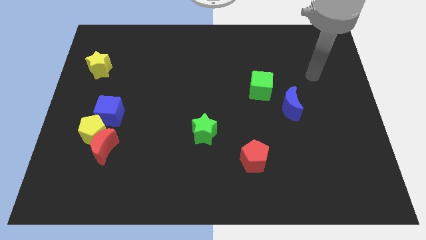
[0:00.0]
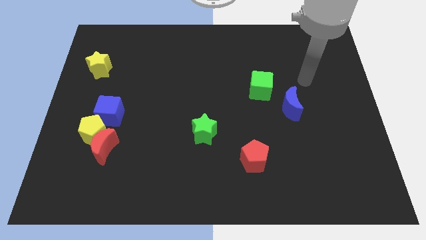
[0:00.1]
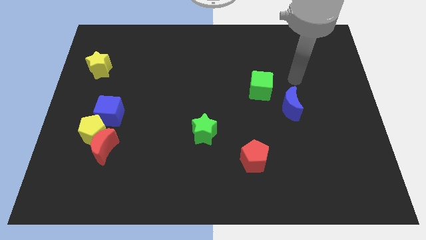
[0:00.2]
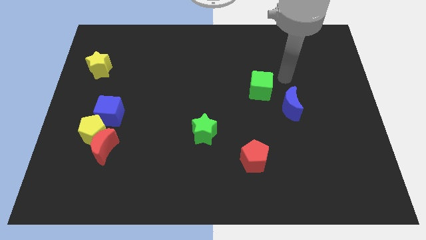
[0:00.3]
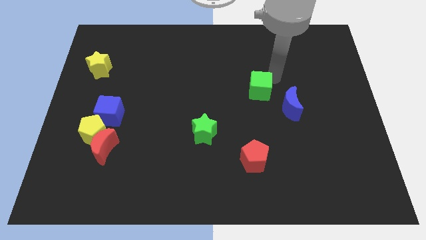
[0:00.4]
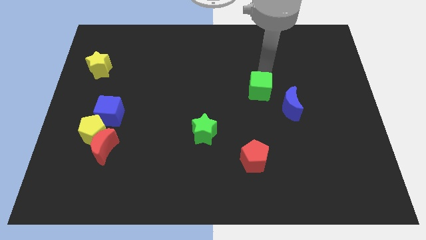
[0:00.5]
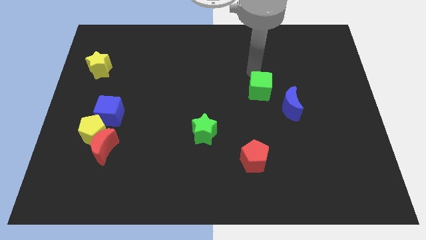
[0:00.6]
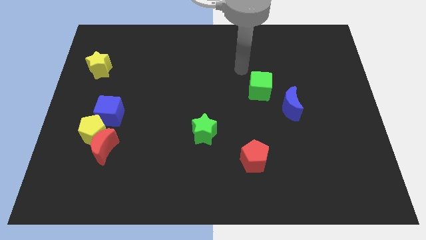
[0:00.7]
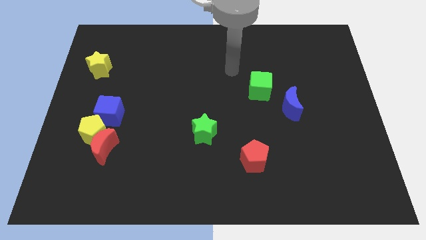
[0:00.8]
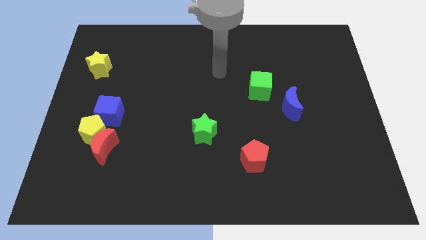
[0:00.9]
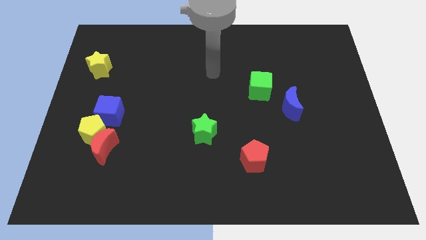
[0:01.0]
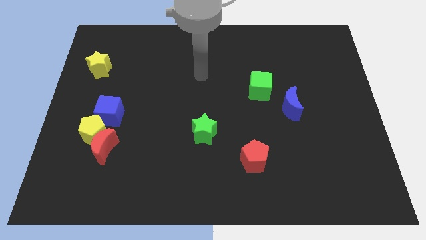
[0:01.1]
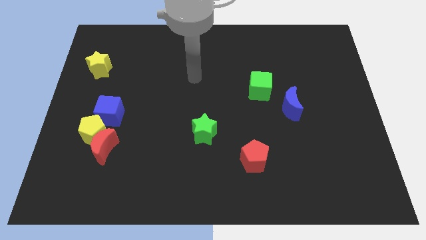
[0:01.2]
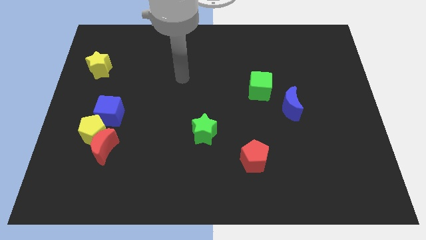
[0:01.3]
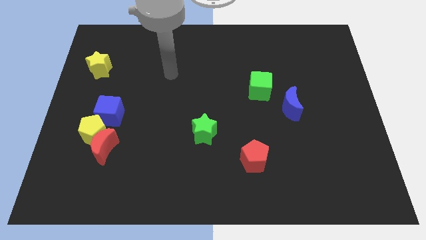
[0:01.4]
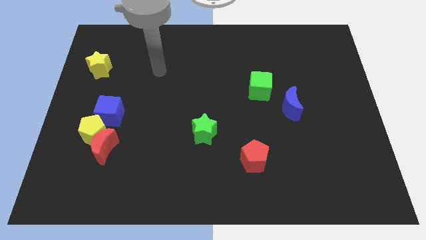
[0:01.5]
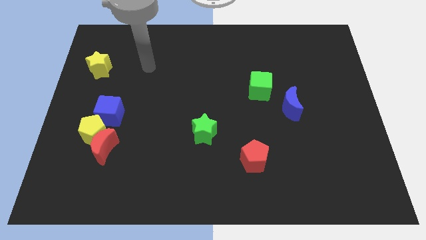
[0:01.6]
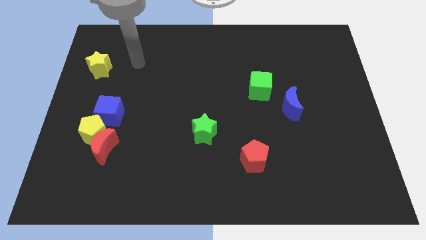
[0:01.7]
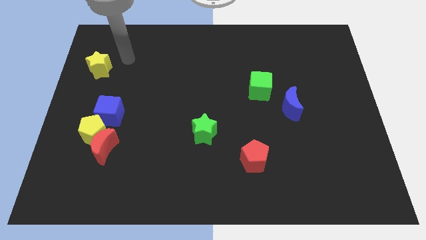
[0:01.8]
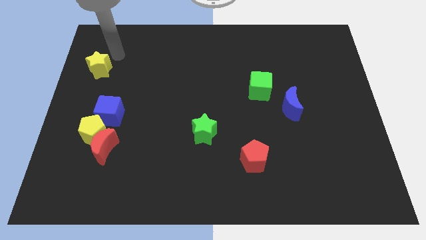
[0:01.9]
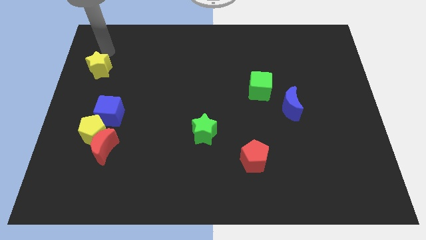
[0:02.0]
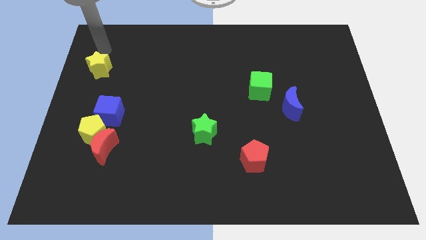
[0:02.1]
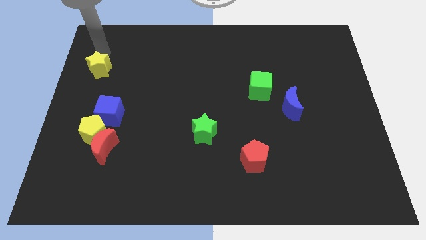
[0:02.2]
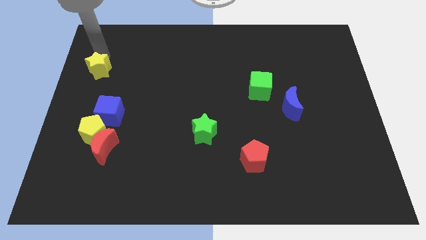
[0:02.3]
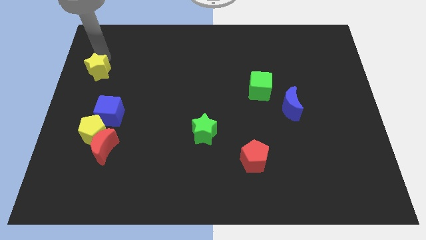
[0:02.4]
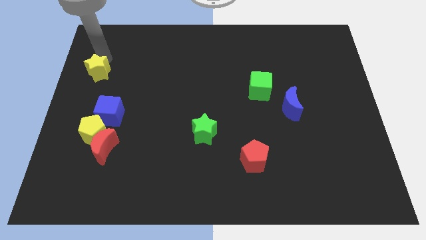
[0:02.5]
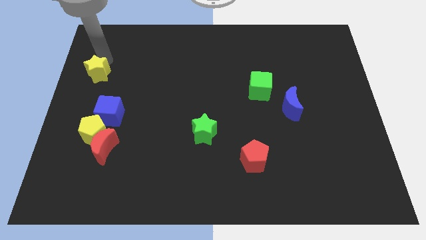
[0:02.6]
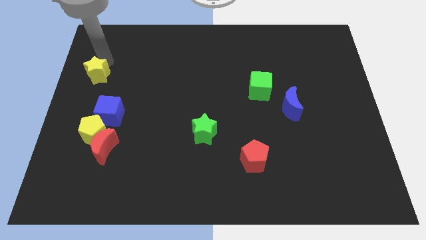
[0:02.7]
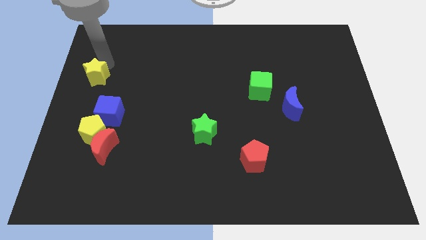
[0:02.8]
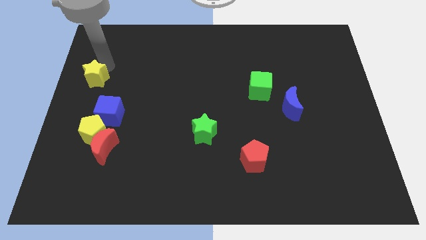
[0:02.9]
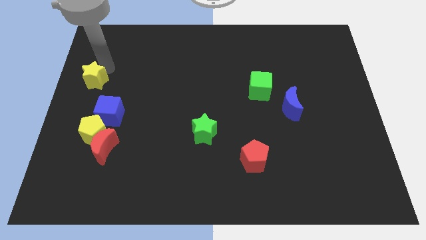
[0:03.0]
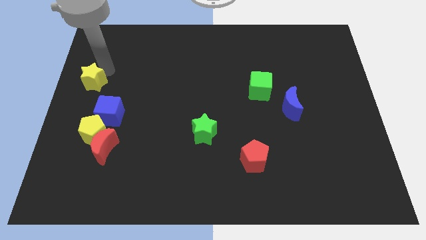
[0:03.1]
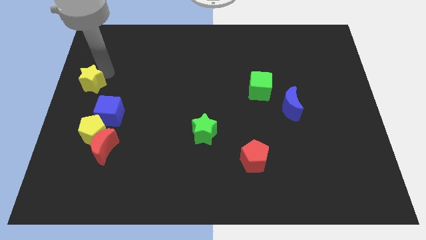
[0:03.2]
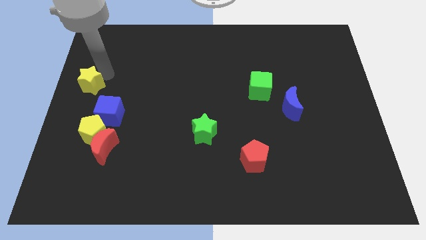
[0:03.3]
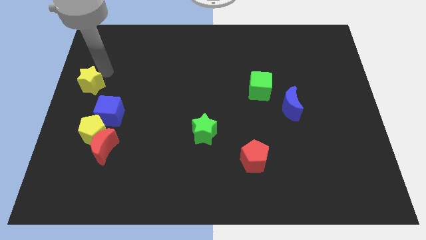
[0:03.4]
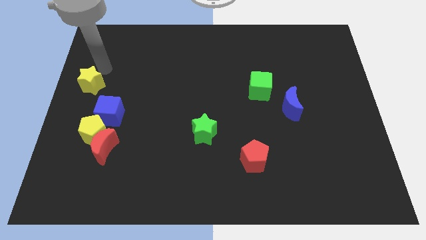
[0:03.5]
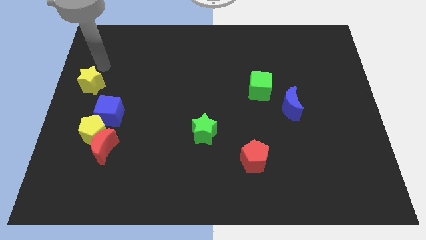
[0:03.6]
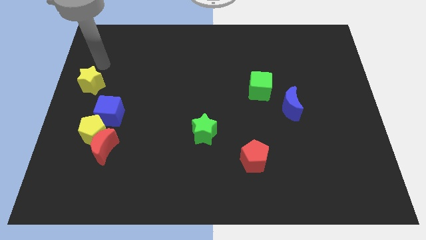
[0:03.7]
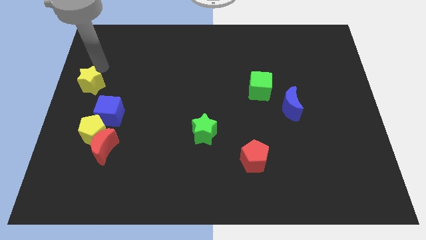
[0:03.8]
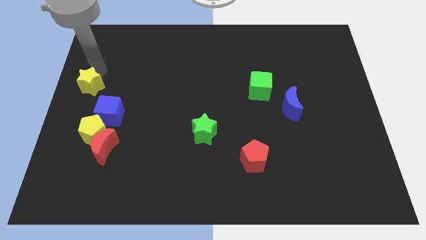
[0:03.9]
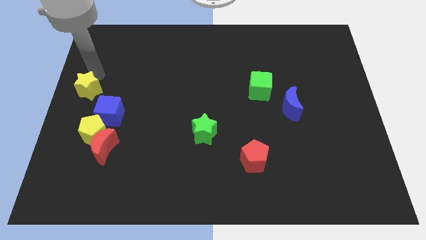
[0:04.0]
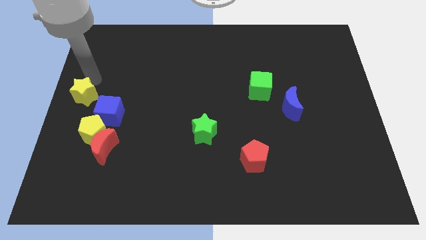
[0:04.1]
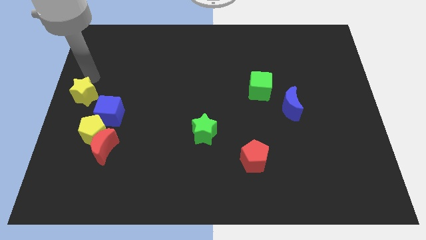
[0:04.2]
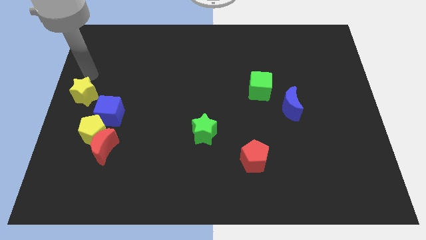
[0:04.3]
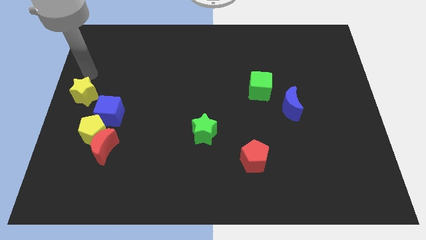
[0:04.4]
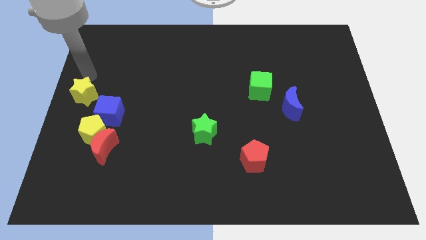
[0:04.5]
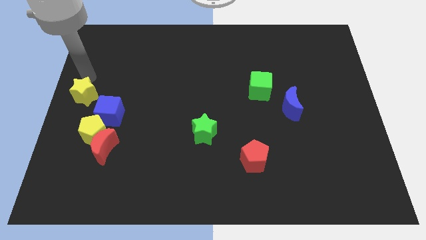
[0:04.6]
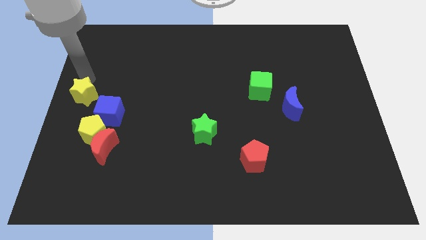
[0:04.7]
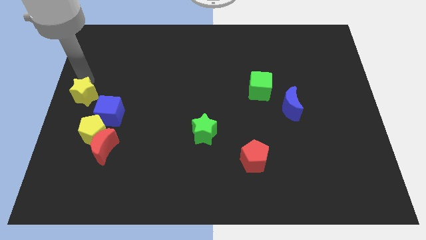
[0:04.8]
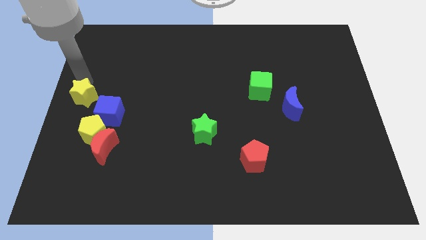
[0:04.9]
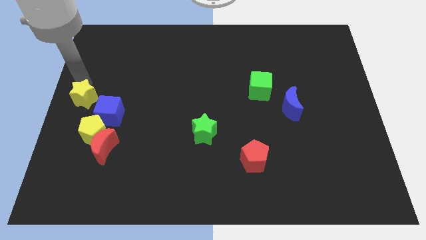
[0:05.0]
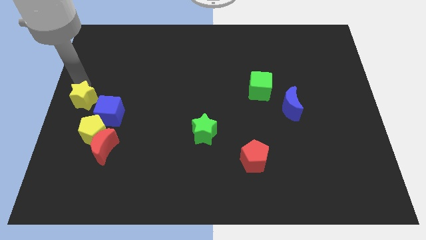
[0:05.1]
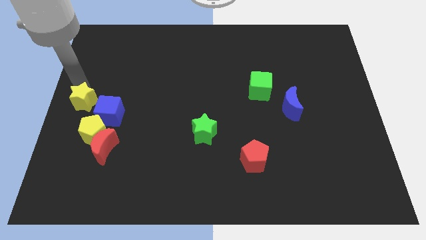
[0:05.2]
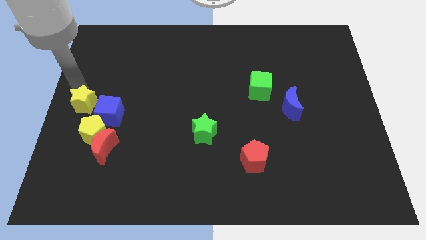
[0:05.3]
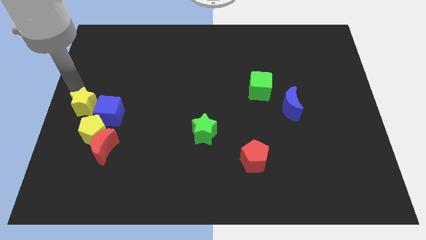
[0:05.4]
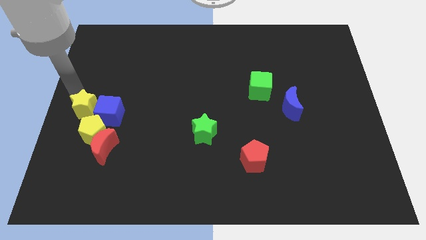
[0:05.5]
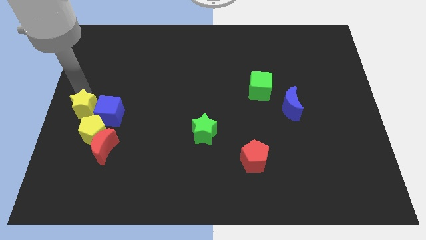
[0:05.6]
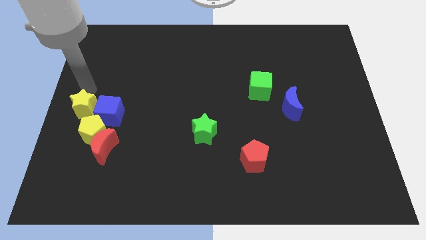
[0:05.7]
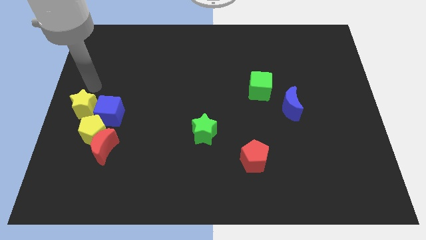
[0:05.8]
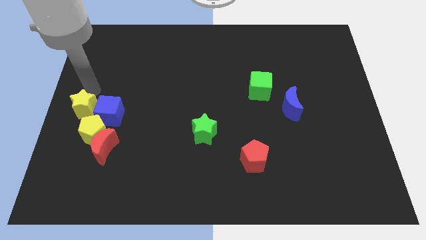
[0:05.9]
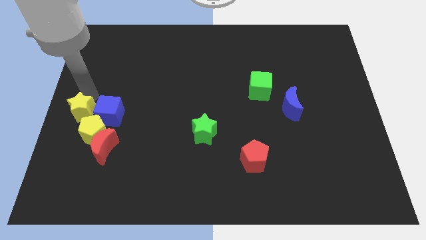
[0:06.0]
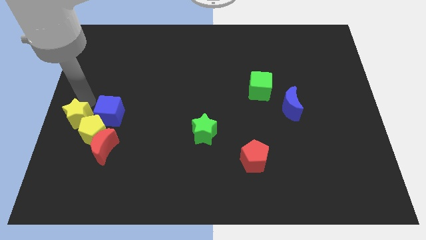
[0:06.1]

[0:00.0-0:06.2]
move the yellow star to the bottom left of the blue cube

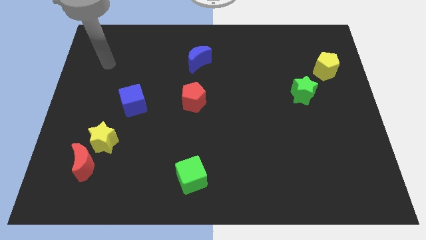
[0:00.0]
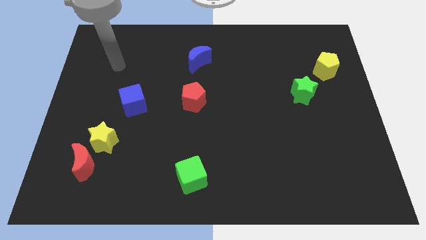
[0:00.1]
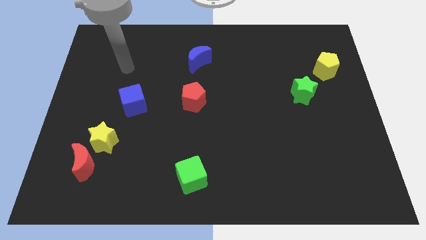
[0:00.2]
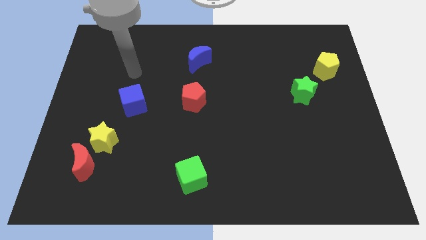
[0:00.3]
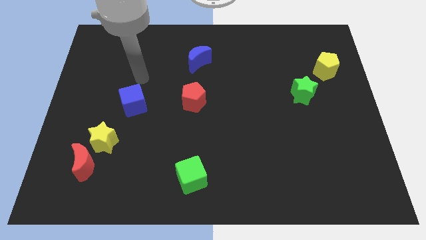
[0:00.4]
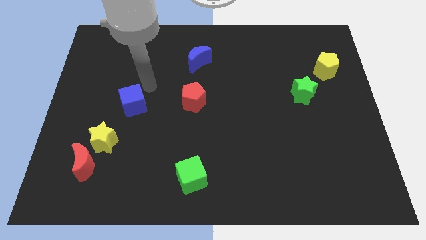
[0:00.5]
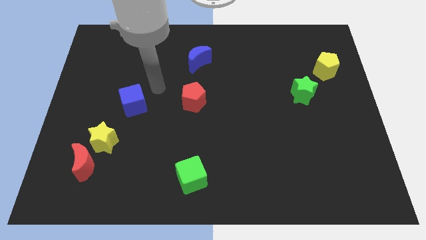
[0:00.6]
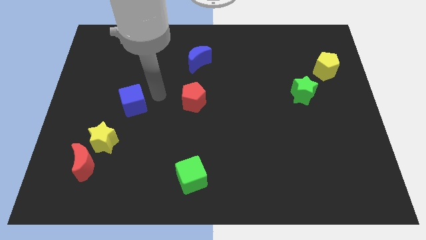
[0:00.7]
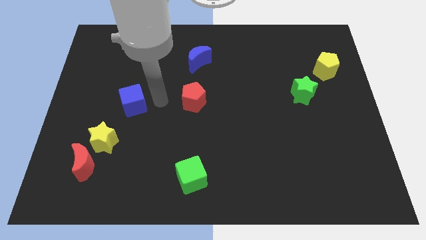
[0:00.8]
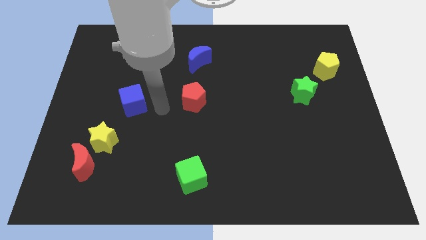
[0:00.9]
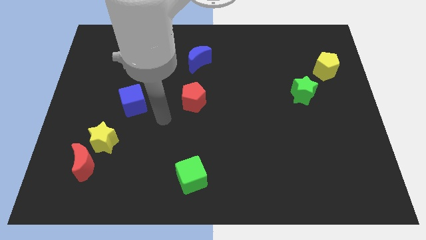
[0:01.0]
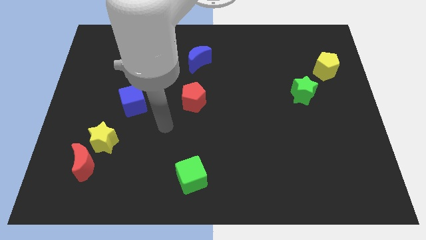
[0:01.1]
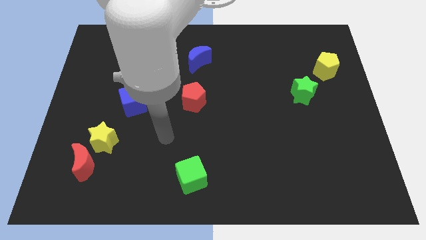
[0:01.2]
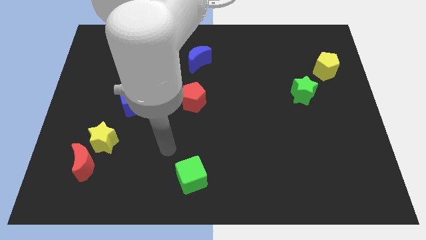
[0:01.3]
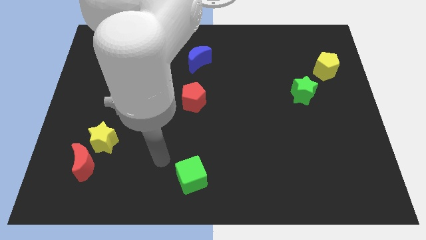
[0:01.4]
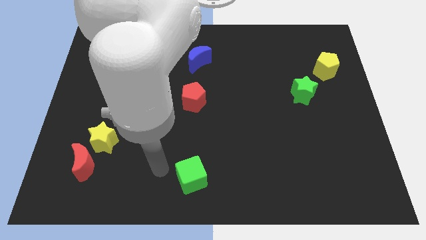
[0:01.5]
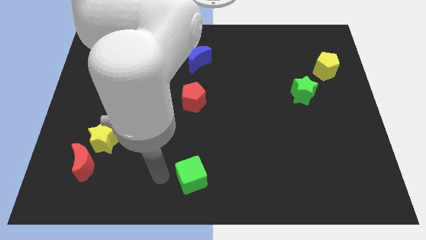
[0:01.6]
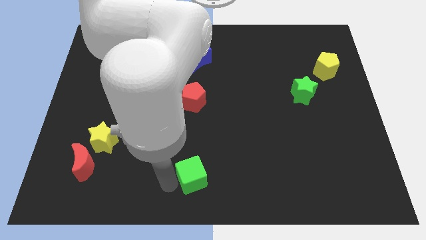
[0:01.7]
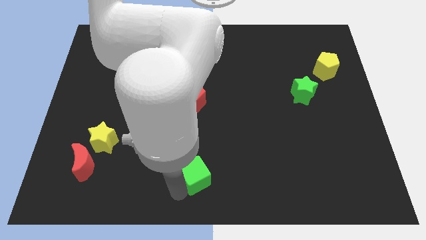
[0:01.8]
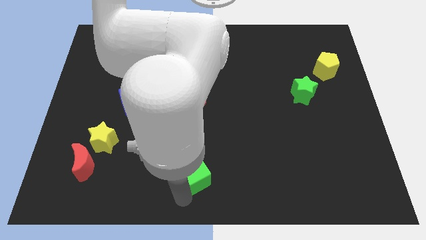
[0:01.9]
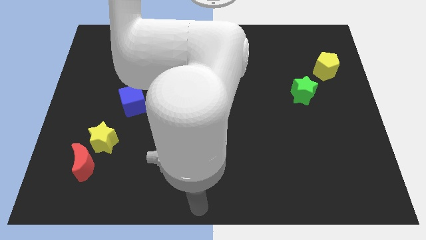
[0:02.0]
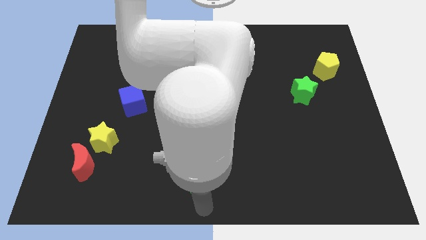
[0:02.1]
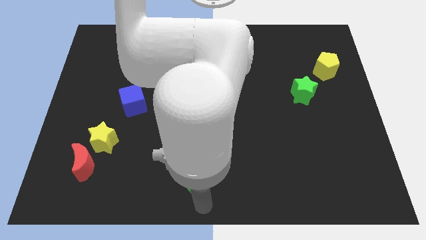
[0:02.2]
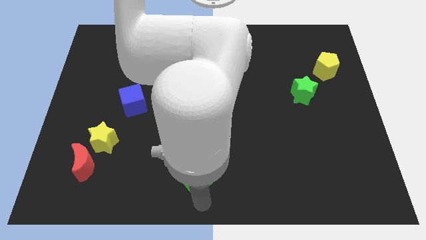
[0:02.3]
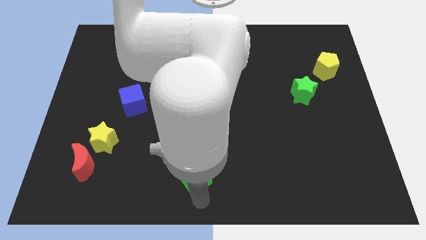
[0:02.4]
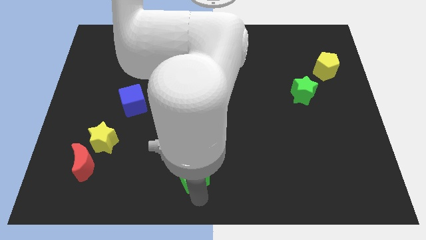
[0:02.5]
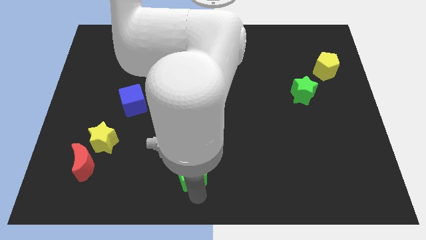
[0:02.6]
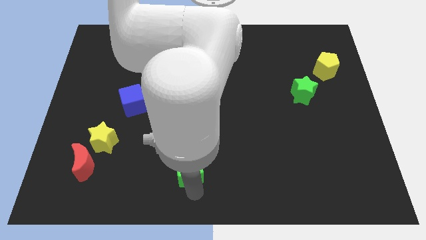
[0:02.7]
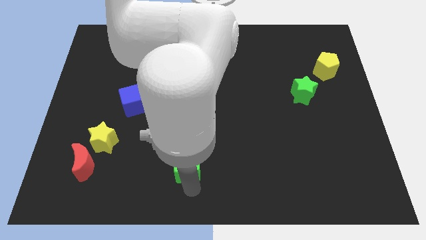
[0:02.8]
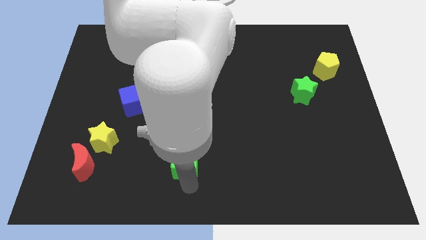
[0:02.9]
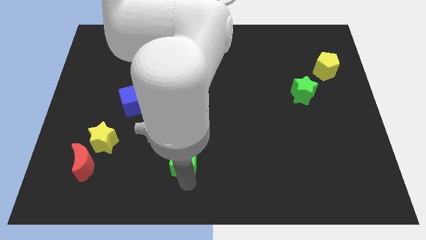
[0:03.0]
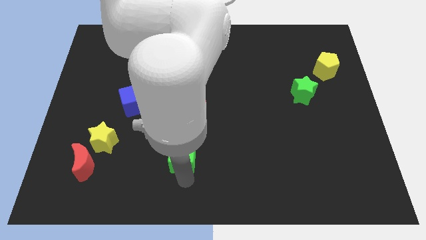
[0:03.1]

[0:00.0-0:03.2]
put the green cube to the bottom of the red pentagon
